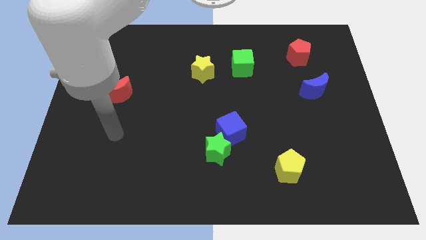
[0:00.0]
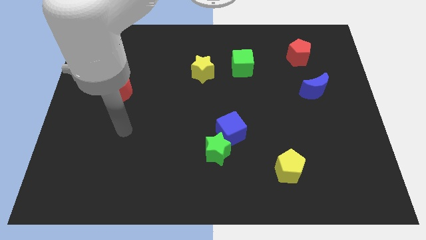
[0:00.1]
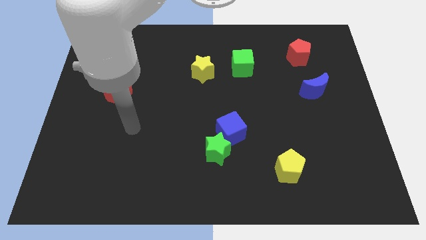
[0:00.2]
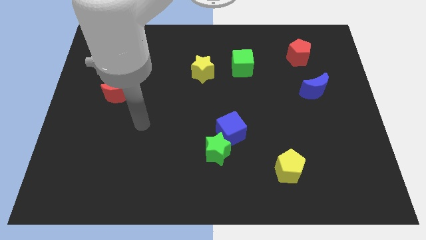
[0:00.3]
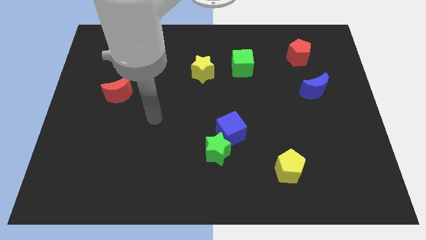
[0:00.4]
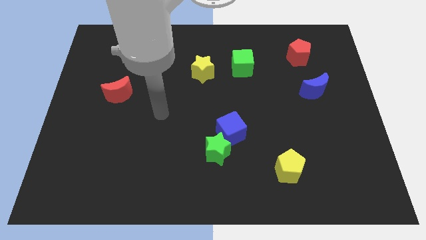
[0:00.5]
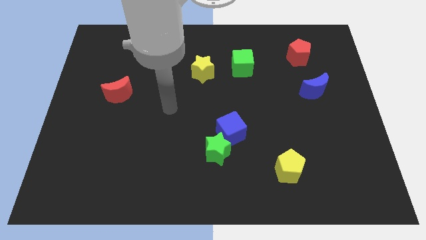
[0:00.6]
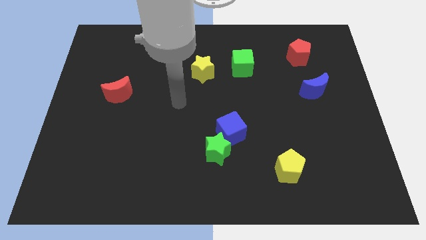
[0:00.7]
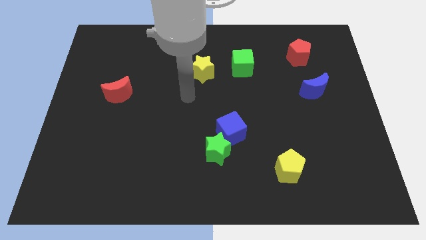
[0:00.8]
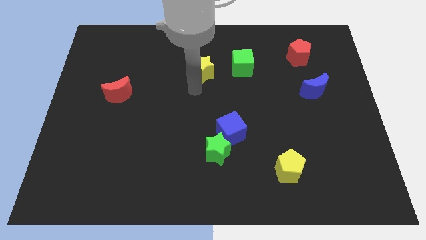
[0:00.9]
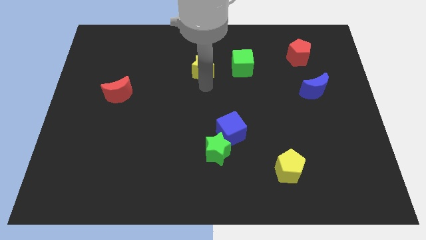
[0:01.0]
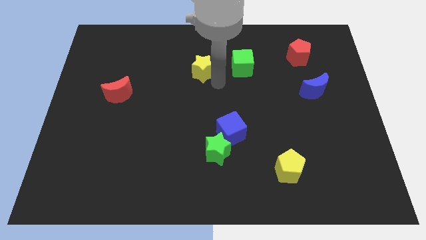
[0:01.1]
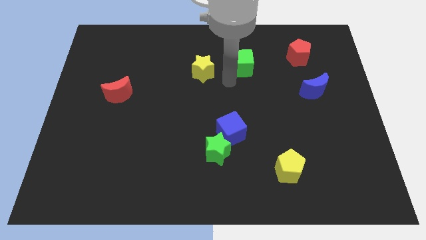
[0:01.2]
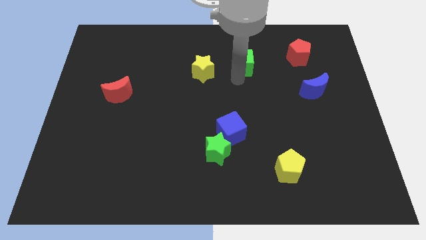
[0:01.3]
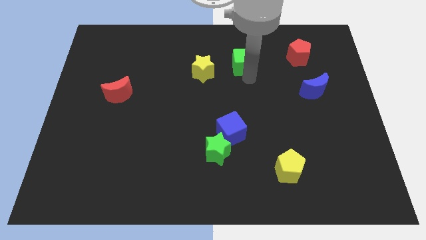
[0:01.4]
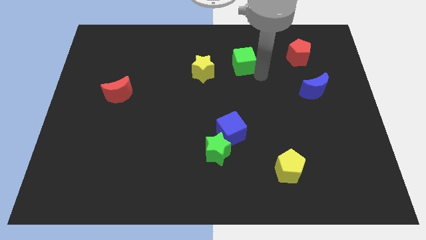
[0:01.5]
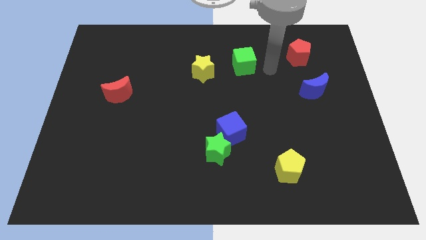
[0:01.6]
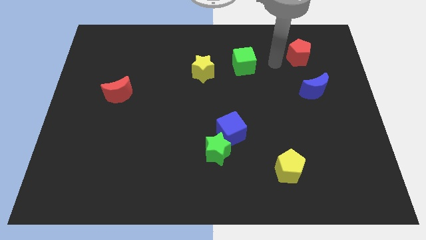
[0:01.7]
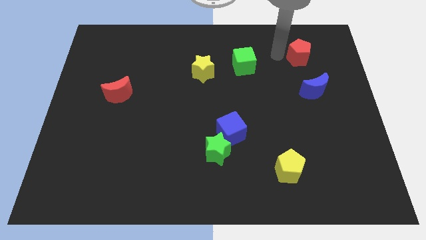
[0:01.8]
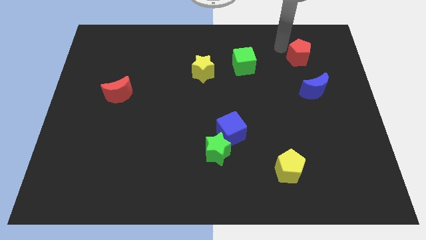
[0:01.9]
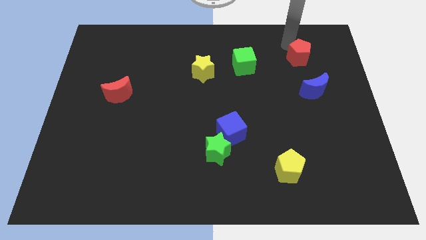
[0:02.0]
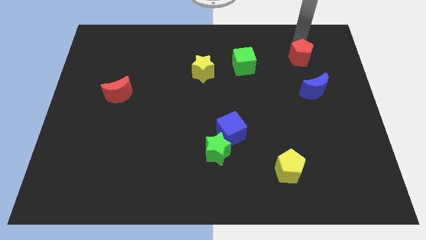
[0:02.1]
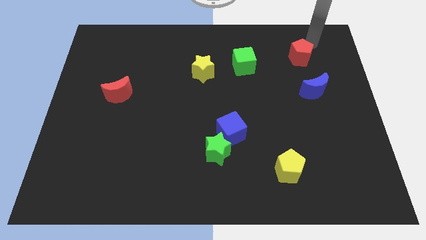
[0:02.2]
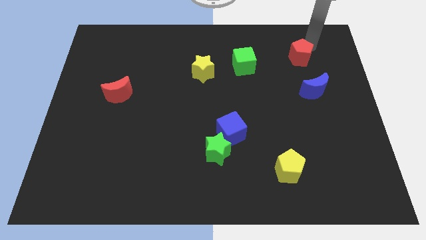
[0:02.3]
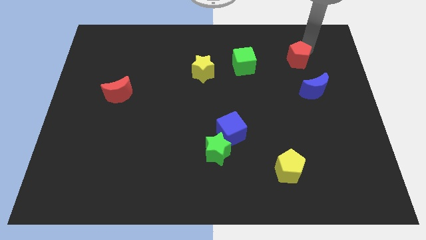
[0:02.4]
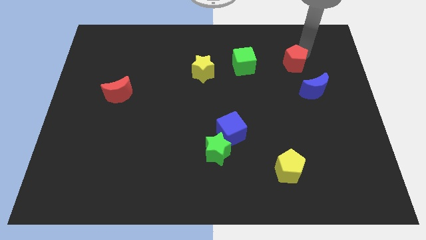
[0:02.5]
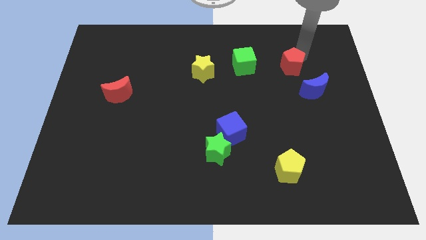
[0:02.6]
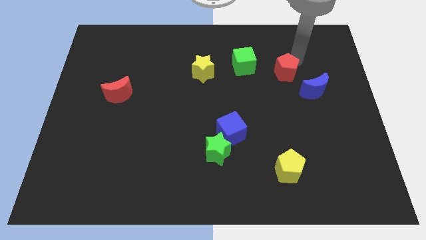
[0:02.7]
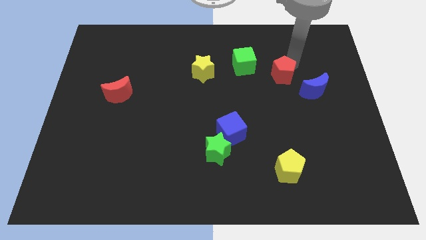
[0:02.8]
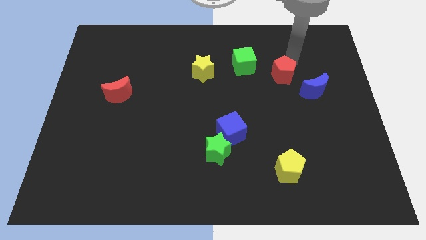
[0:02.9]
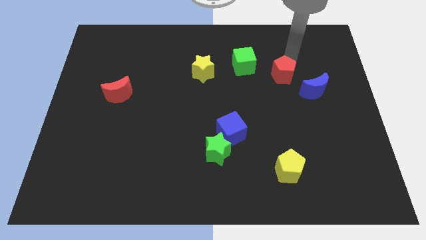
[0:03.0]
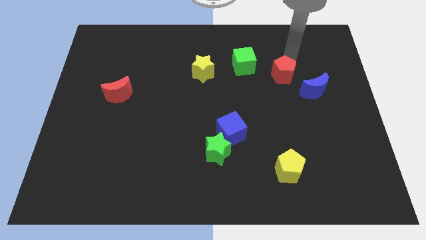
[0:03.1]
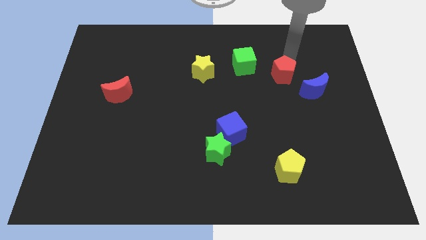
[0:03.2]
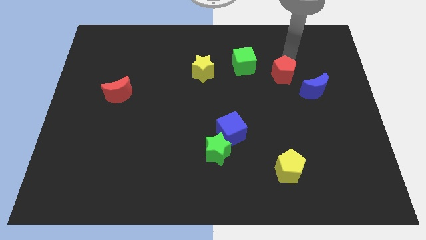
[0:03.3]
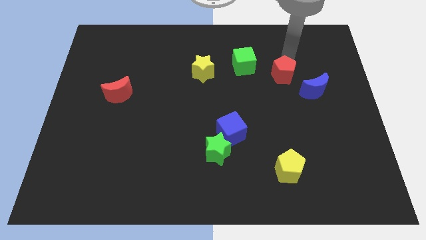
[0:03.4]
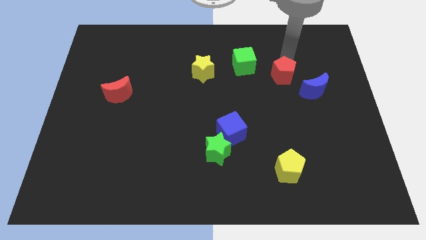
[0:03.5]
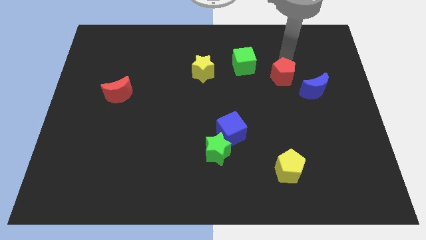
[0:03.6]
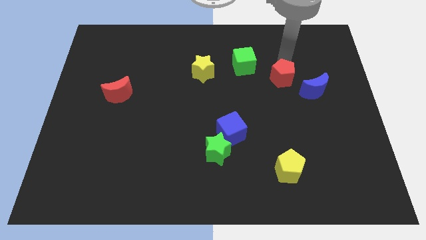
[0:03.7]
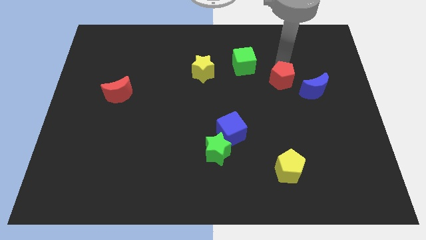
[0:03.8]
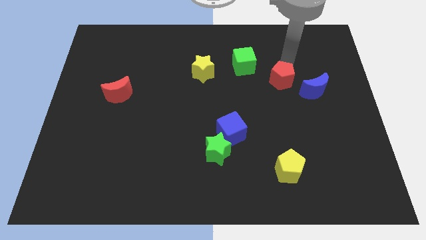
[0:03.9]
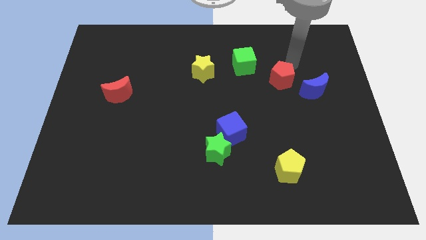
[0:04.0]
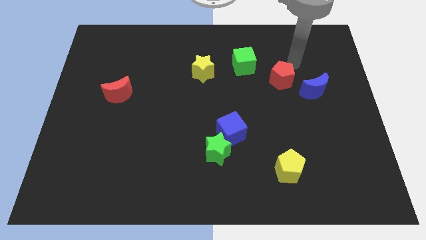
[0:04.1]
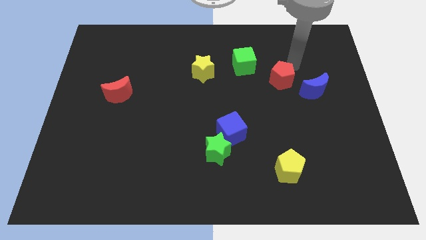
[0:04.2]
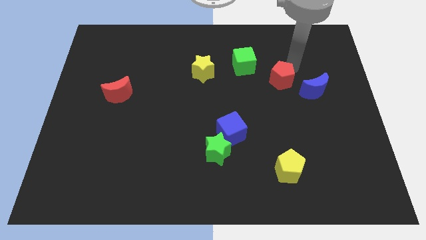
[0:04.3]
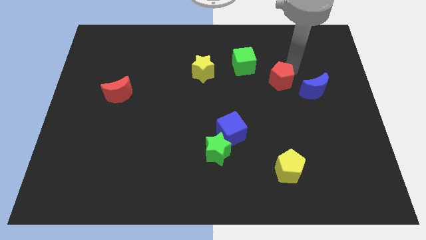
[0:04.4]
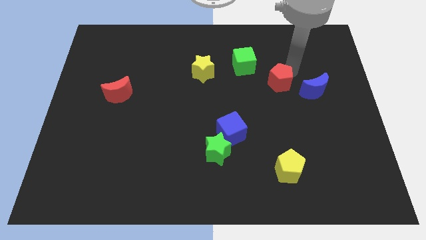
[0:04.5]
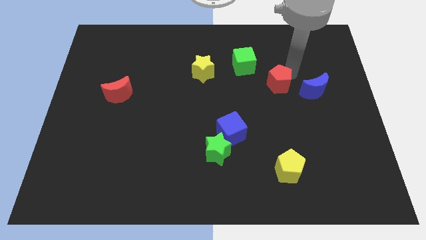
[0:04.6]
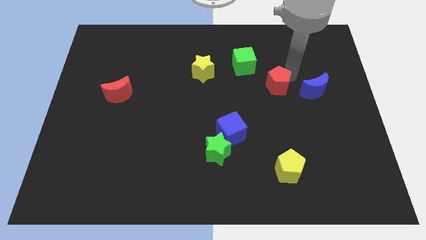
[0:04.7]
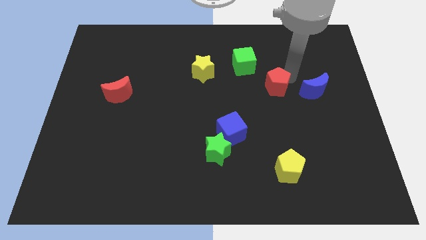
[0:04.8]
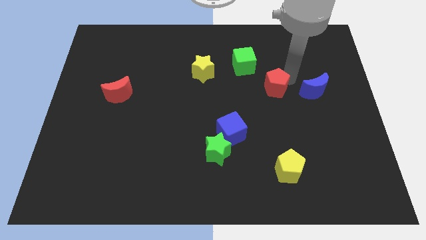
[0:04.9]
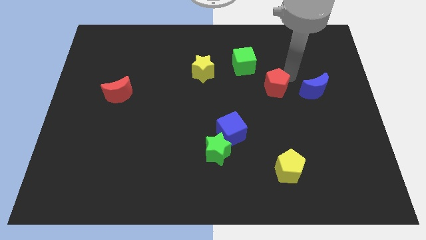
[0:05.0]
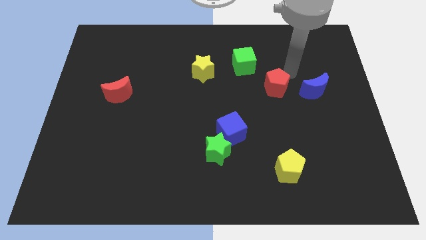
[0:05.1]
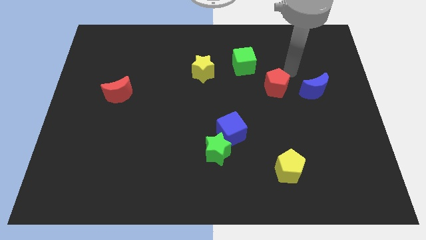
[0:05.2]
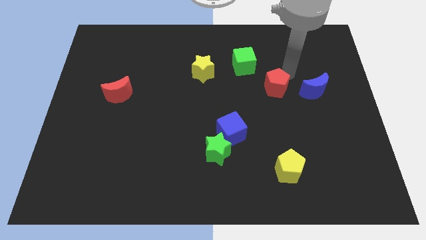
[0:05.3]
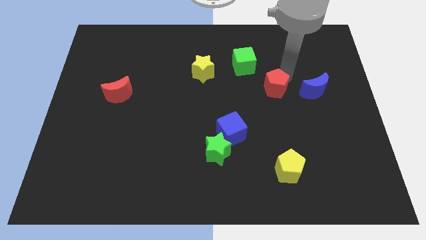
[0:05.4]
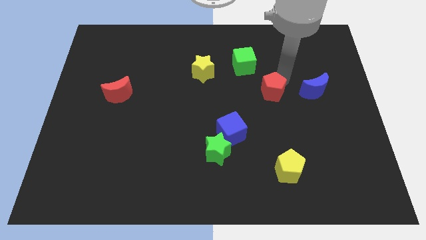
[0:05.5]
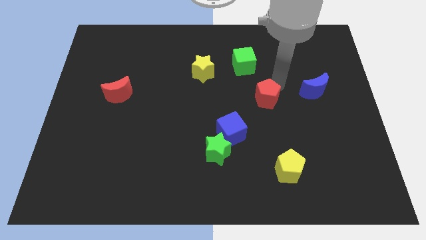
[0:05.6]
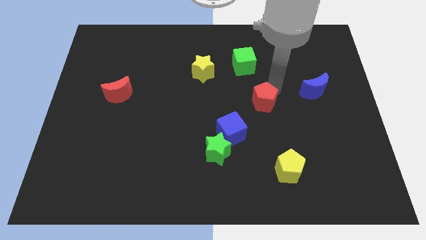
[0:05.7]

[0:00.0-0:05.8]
push the red pentagon diagonally up and to the right of the blue cube

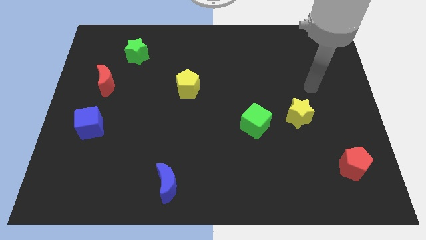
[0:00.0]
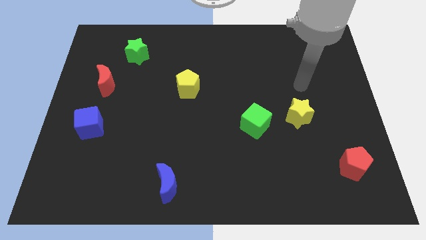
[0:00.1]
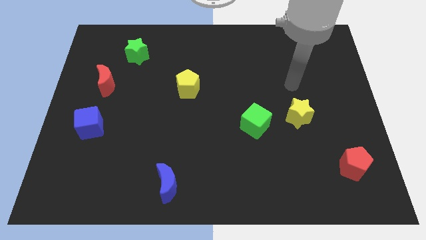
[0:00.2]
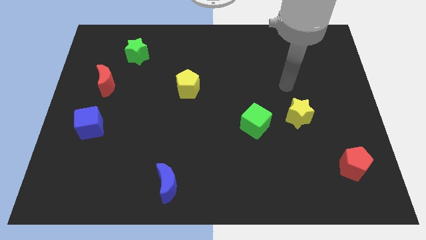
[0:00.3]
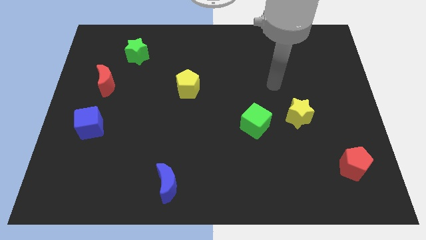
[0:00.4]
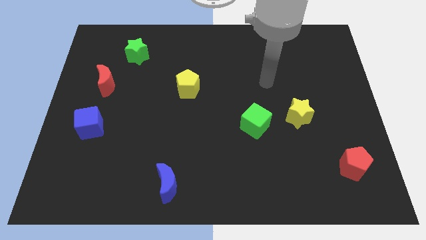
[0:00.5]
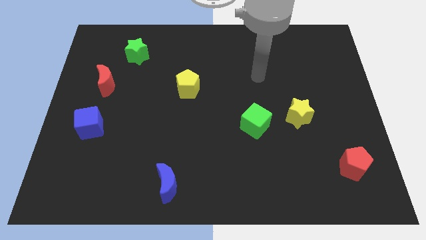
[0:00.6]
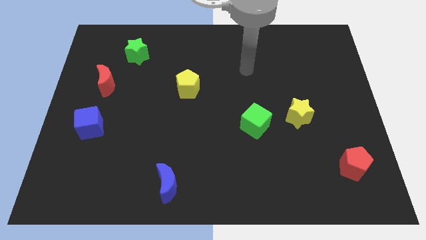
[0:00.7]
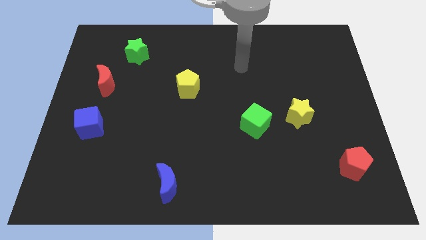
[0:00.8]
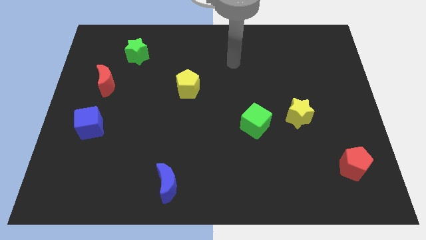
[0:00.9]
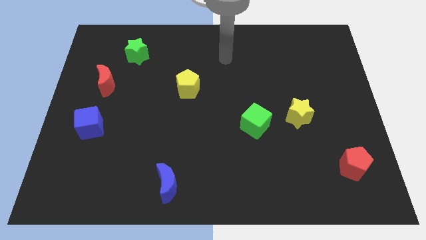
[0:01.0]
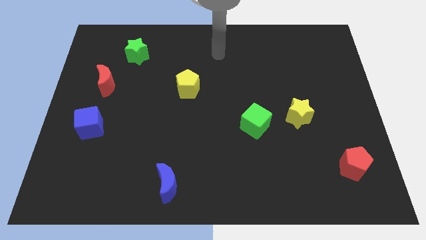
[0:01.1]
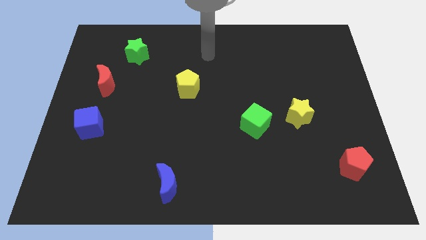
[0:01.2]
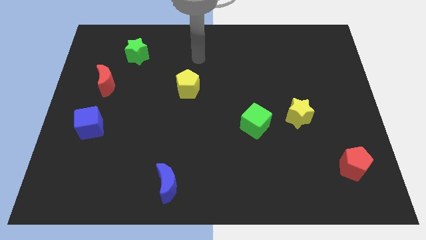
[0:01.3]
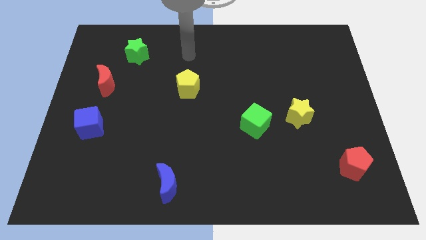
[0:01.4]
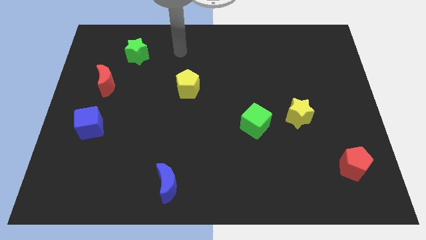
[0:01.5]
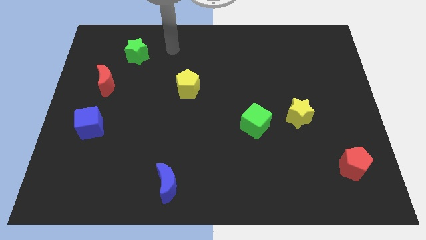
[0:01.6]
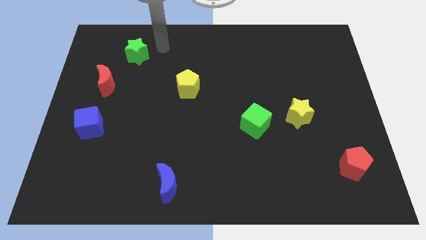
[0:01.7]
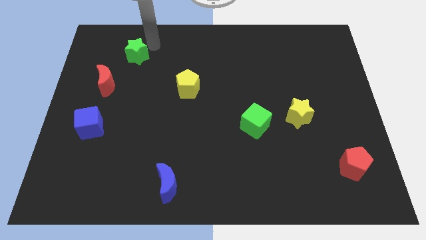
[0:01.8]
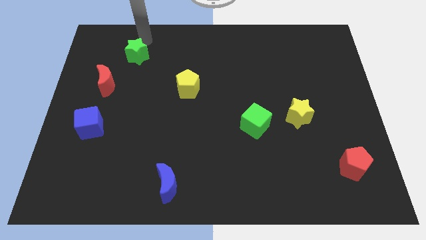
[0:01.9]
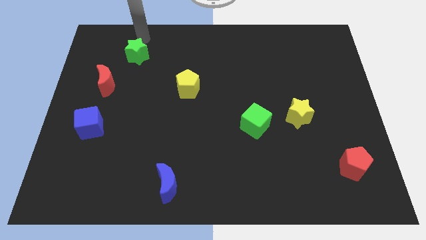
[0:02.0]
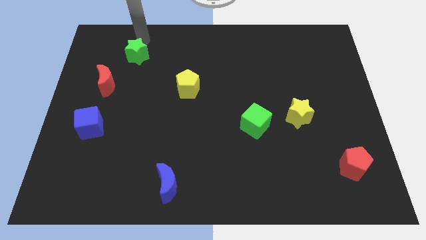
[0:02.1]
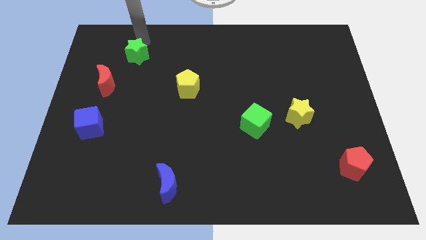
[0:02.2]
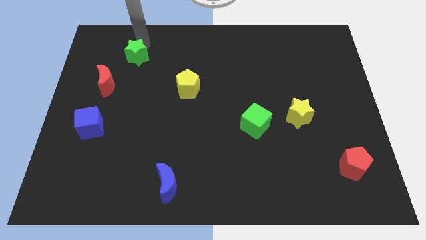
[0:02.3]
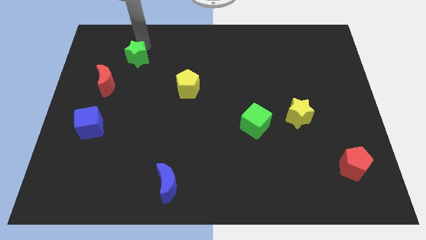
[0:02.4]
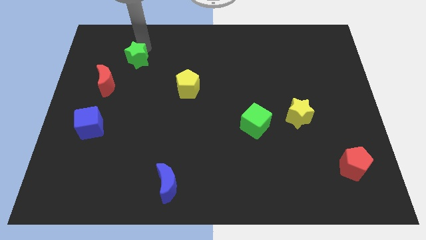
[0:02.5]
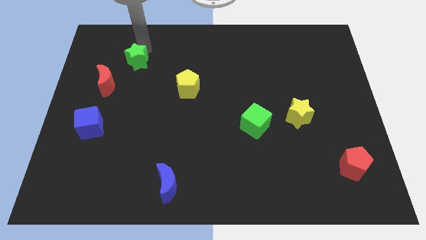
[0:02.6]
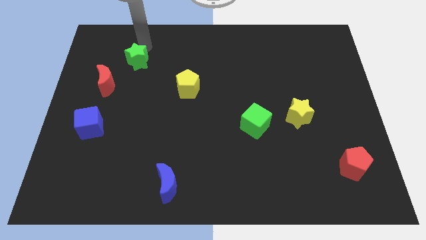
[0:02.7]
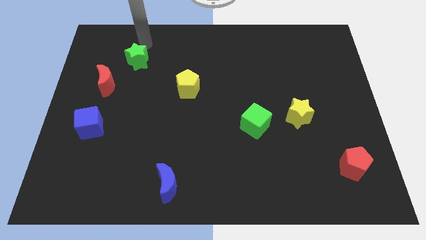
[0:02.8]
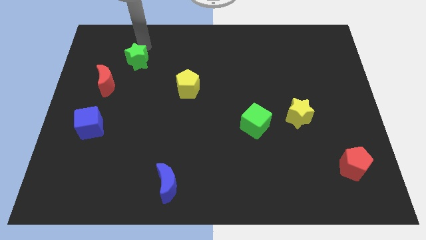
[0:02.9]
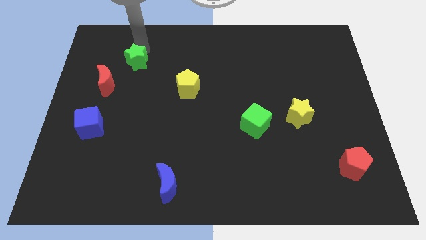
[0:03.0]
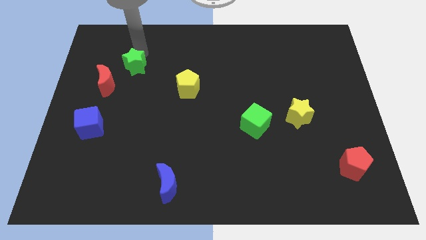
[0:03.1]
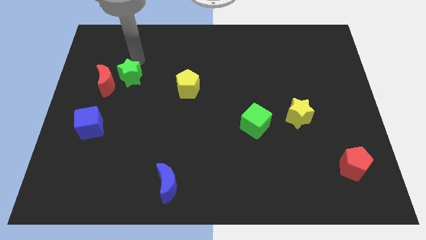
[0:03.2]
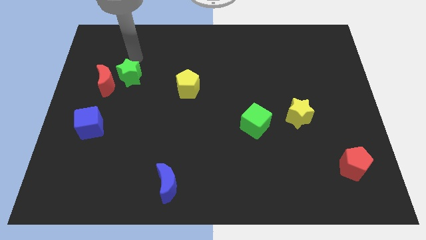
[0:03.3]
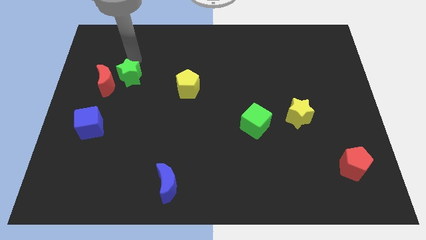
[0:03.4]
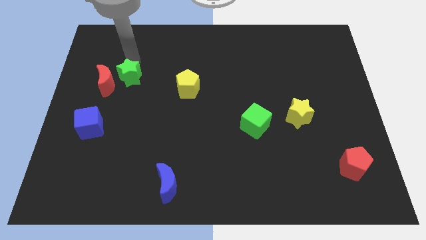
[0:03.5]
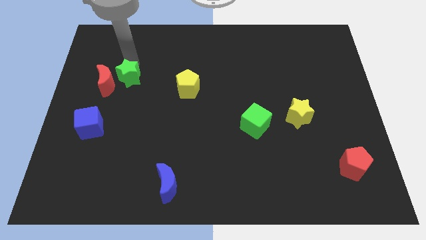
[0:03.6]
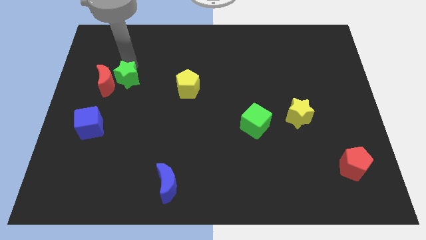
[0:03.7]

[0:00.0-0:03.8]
put the green star to the bottom right side of the red moon
